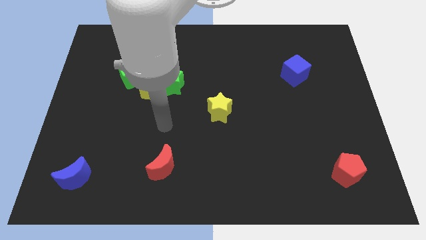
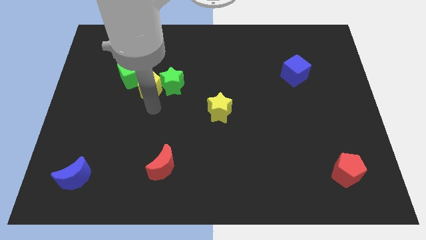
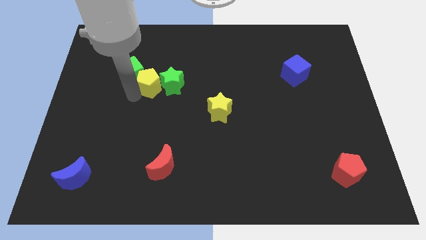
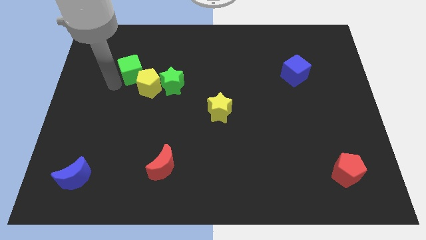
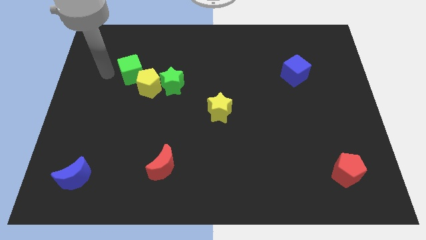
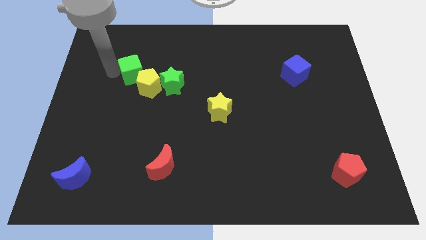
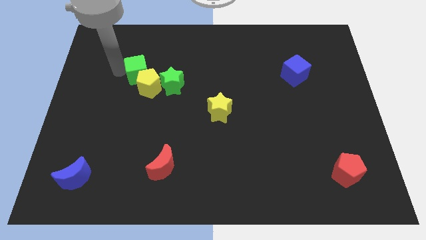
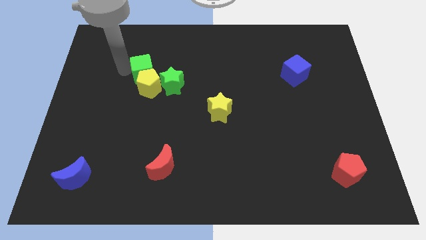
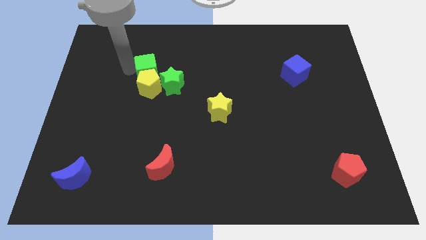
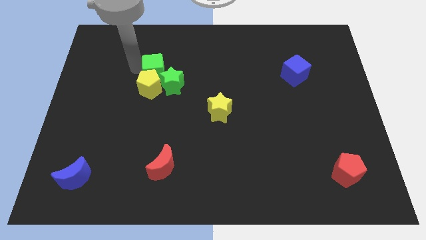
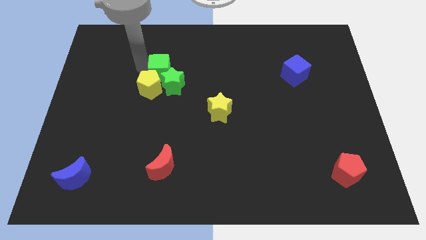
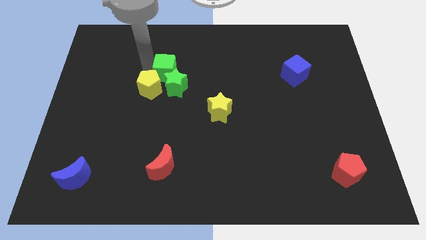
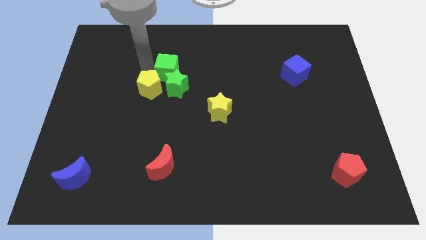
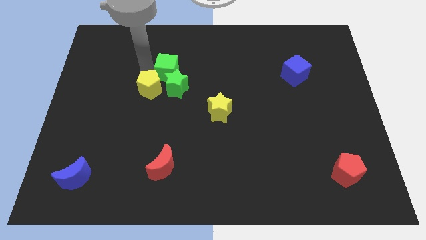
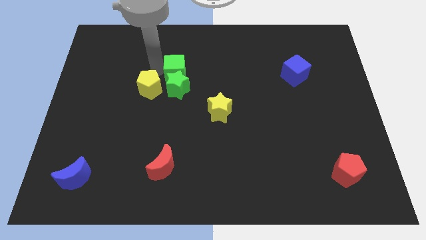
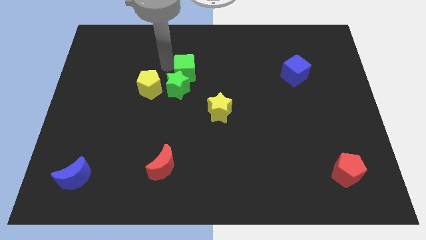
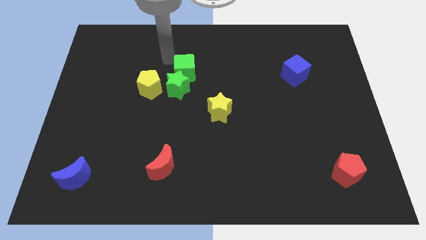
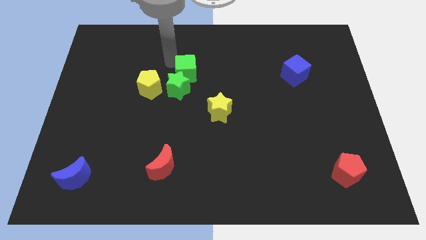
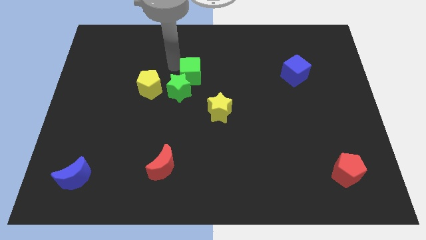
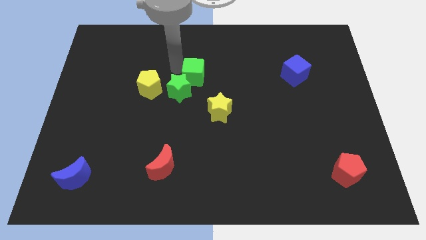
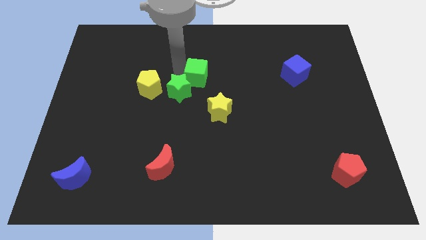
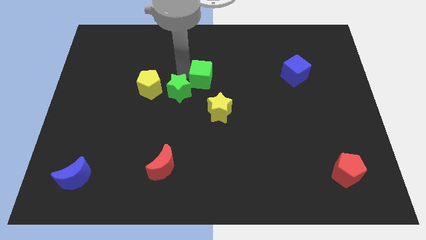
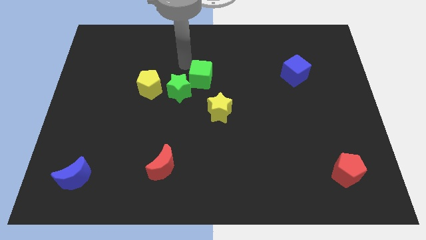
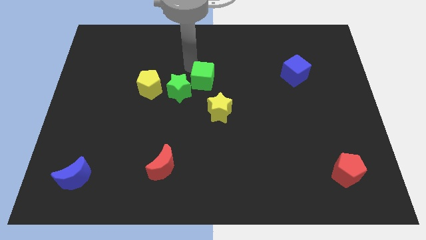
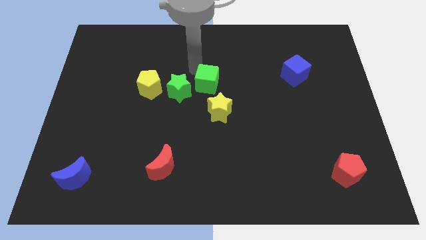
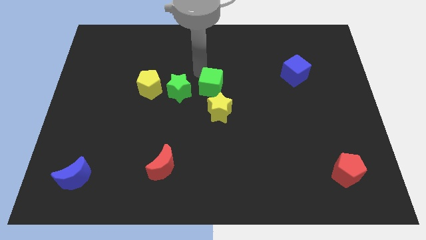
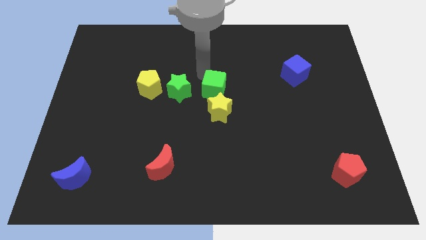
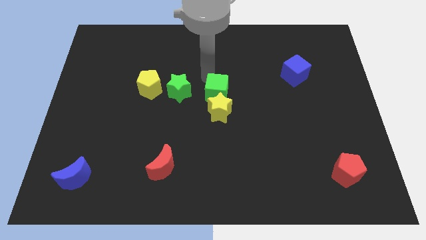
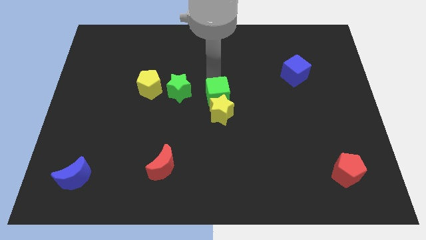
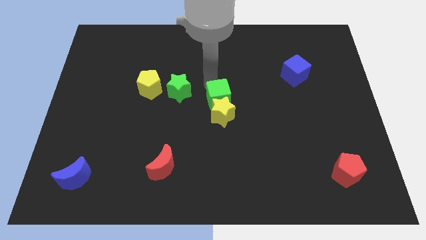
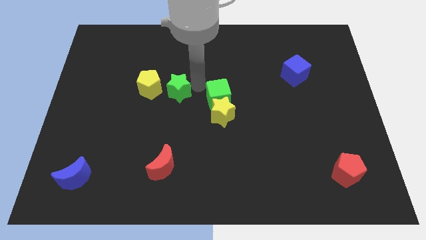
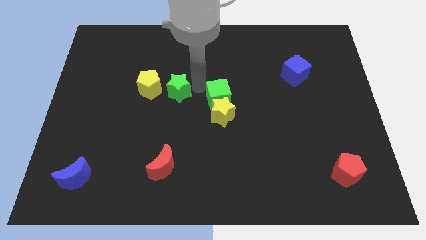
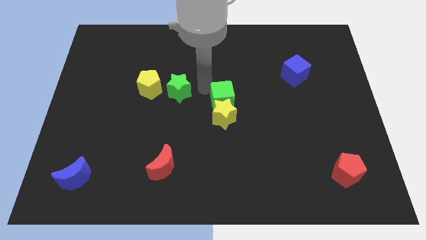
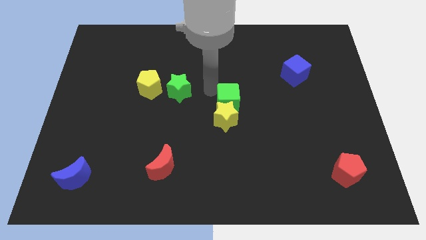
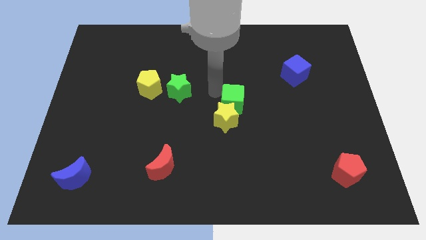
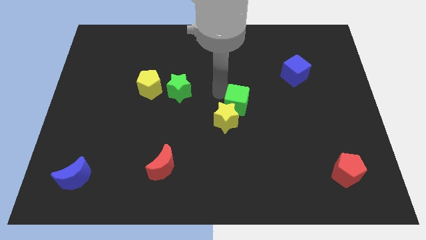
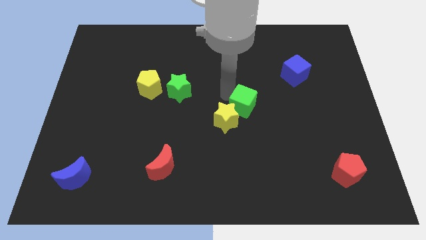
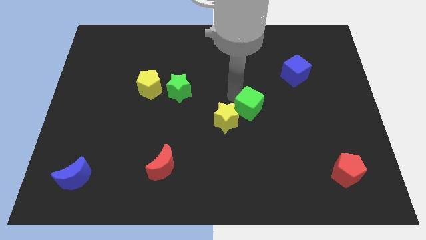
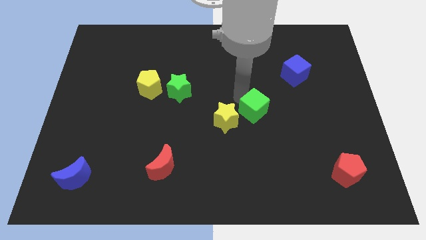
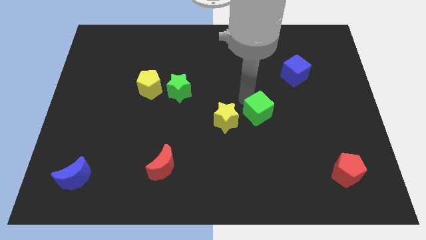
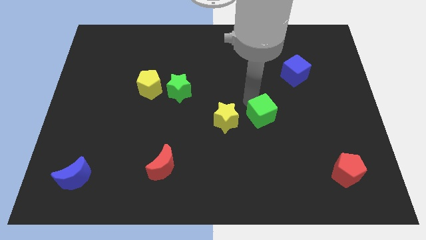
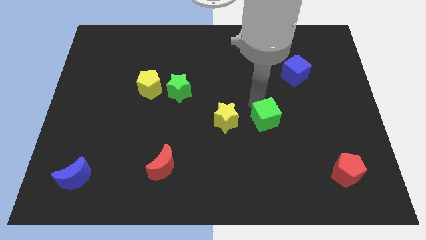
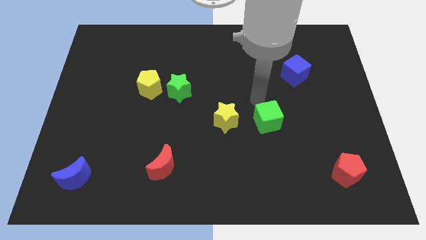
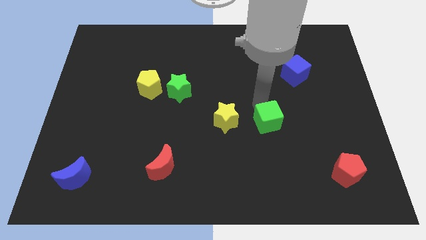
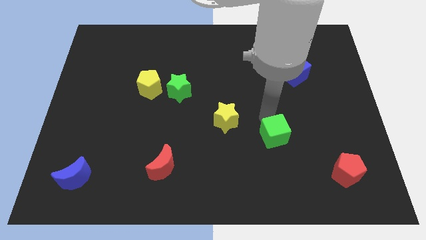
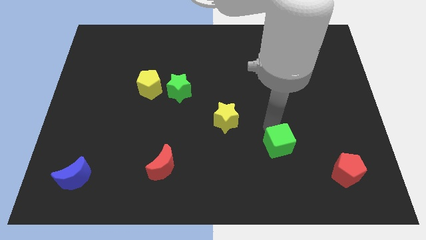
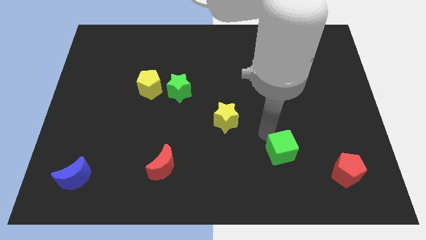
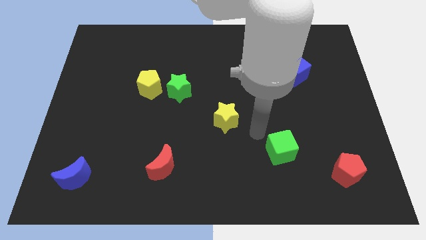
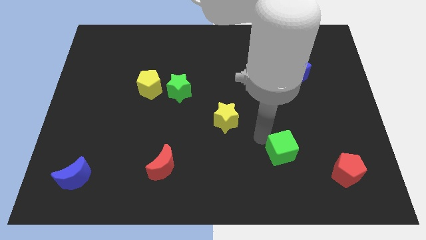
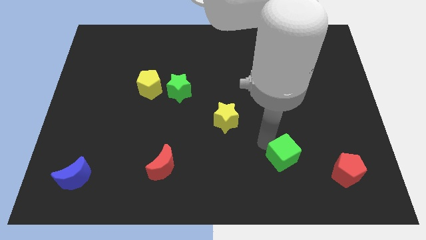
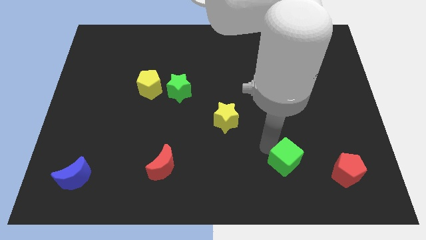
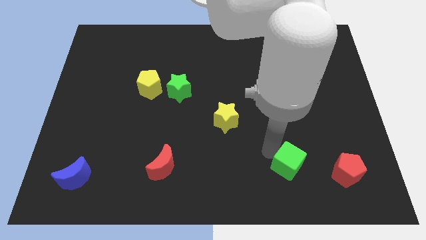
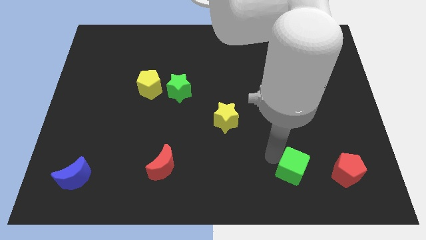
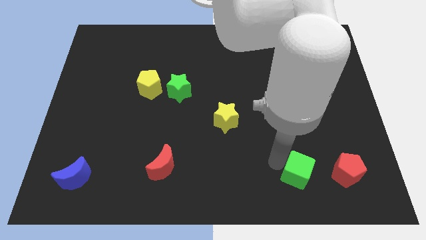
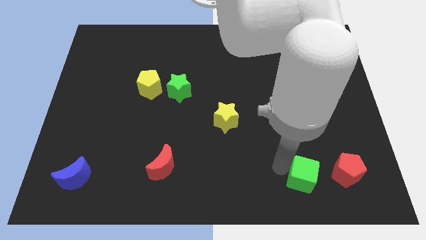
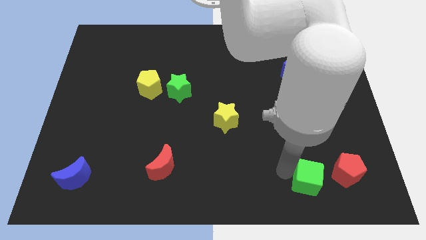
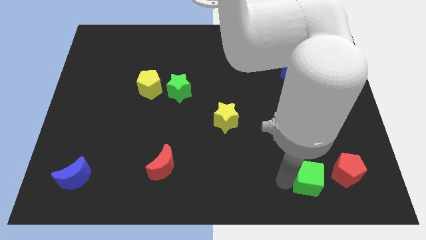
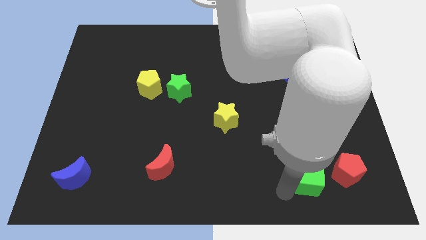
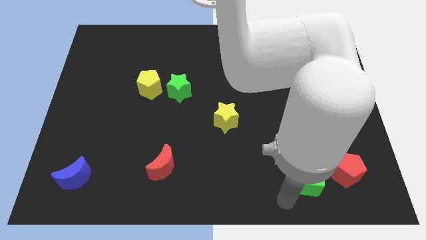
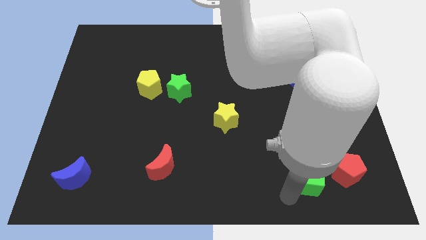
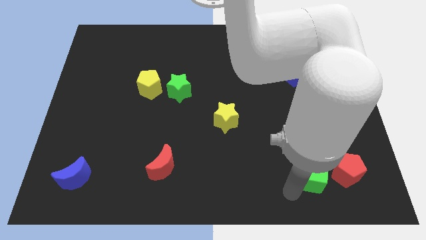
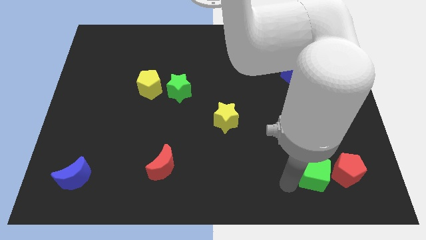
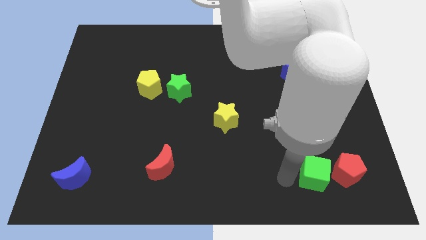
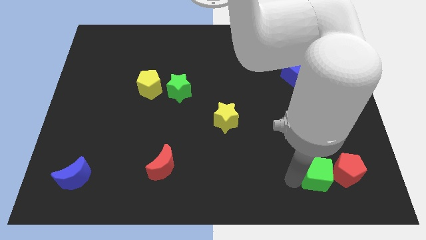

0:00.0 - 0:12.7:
push the green cube towards the red pentagon

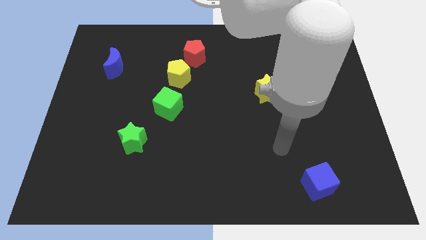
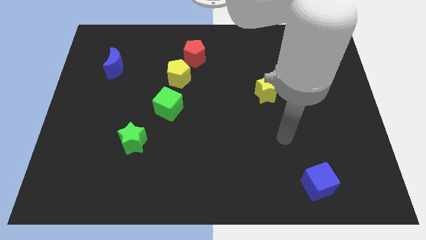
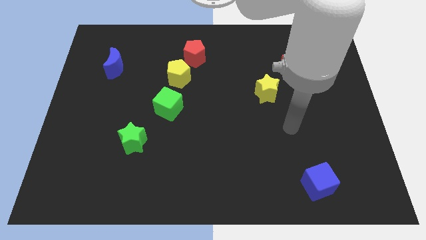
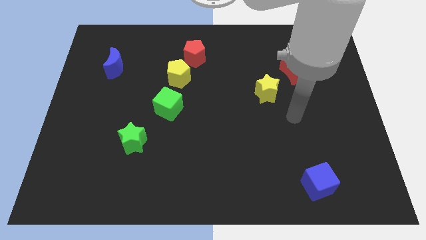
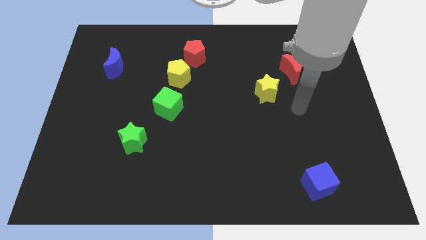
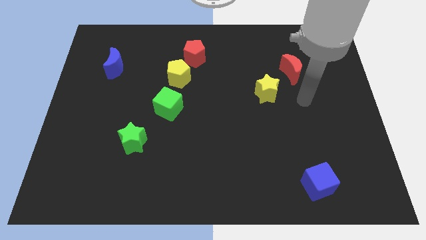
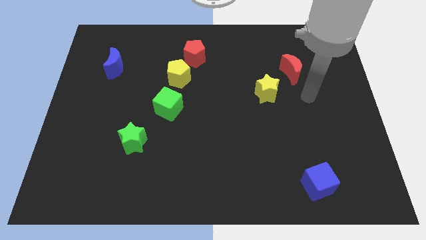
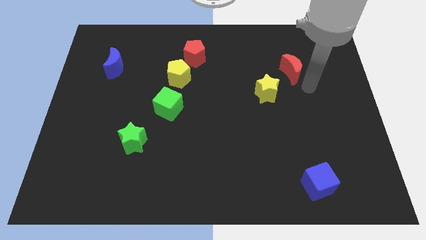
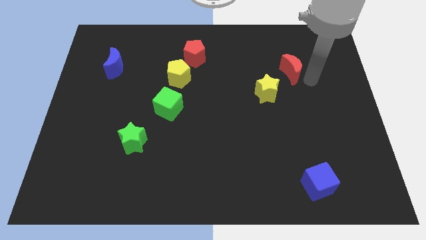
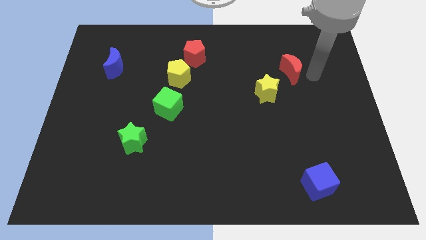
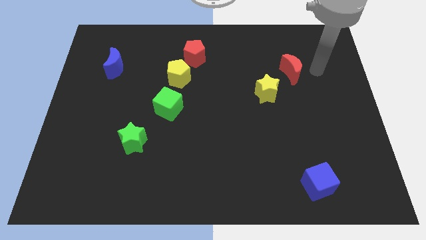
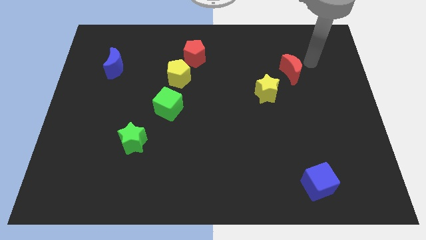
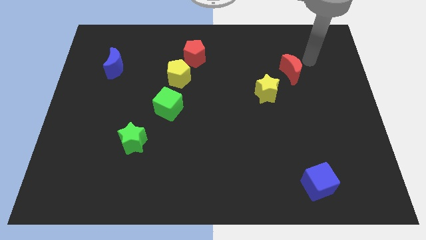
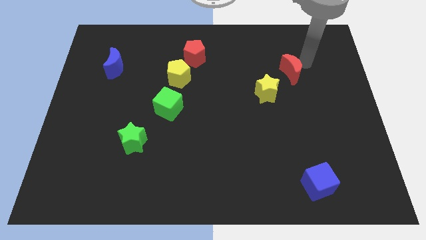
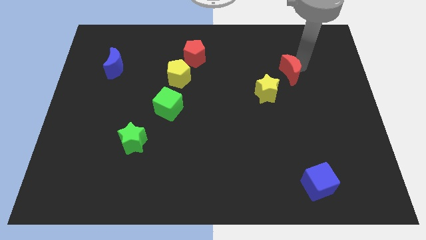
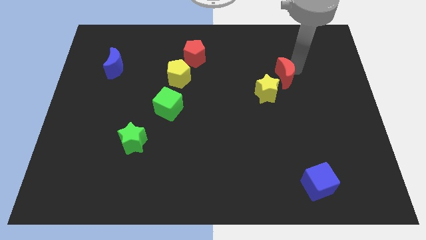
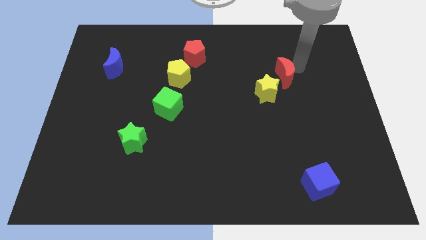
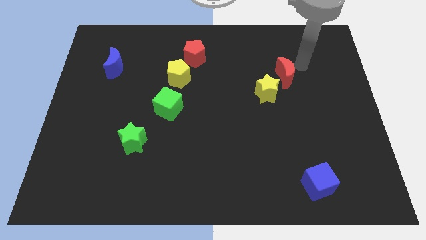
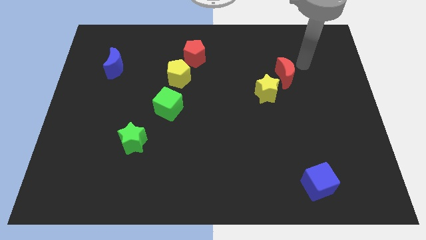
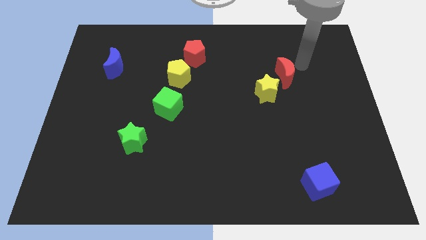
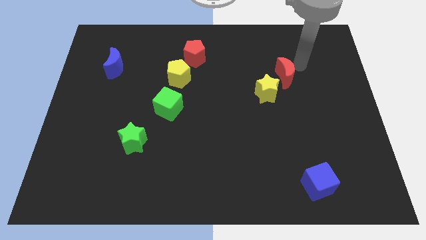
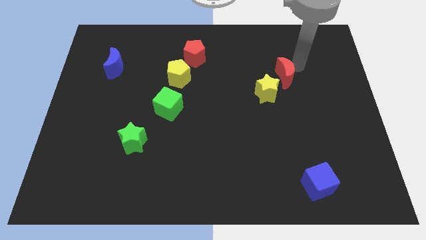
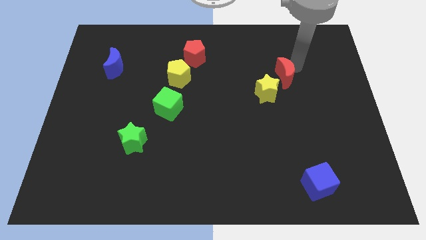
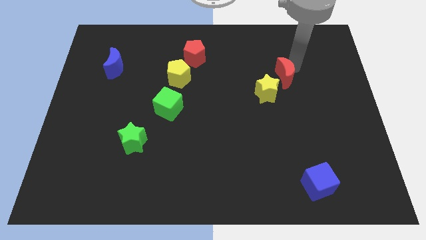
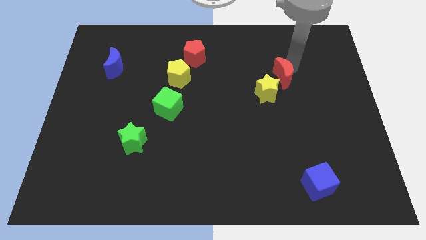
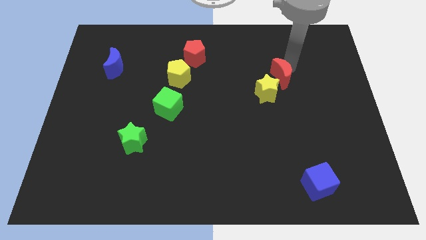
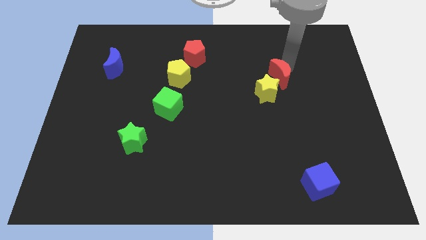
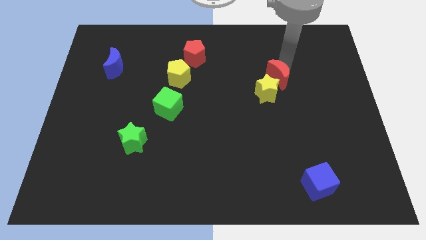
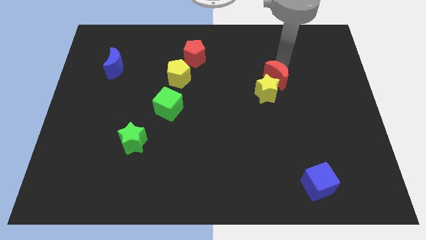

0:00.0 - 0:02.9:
move the red moon towards the yellow star
